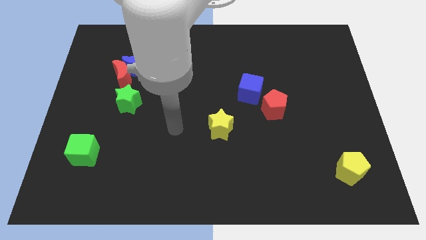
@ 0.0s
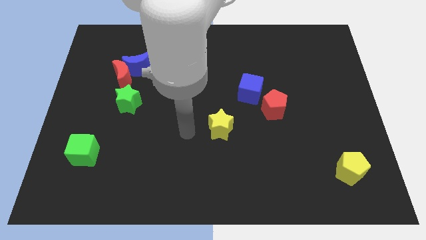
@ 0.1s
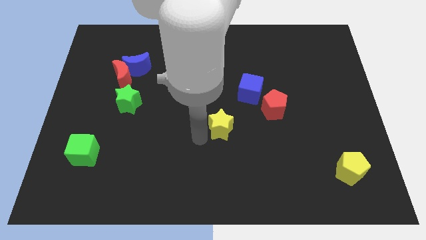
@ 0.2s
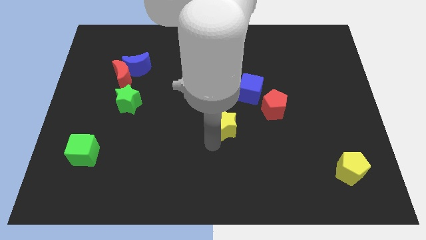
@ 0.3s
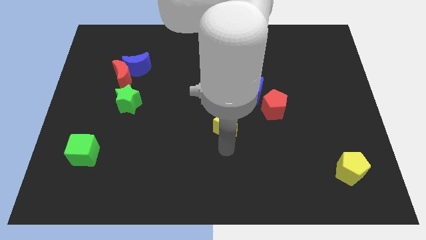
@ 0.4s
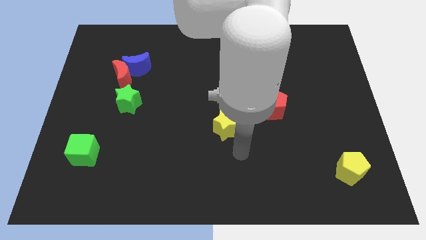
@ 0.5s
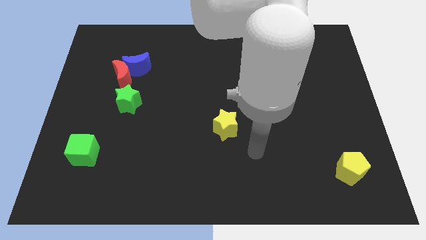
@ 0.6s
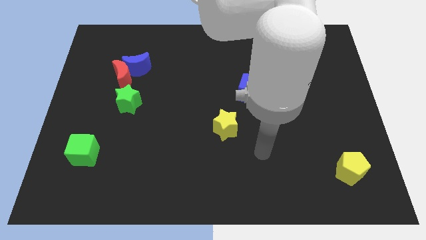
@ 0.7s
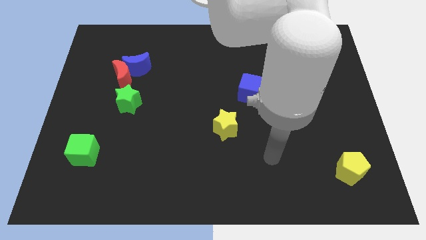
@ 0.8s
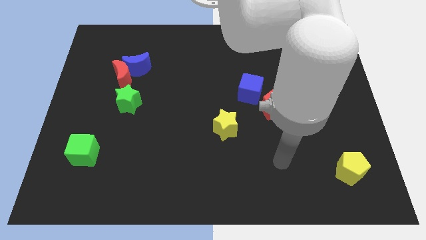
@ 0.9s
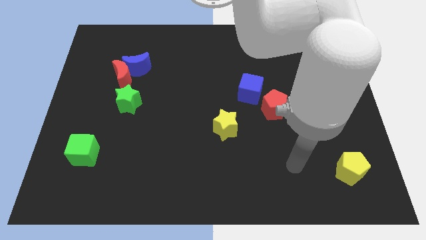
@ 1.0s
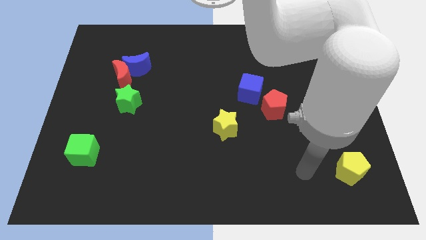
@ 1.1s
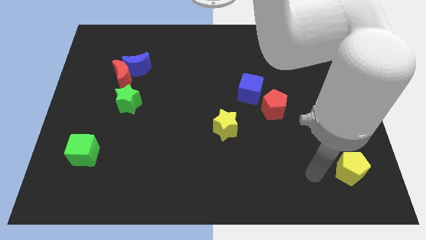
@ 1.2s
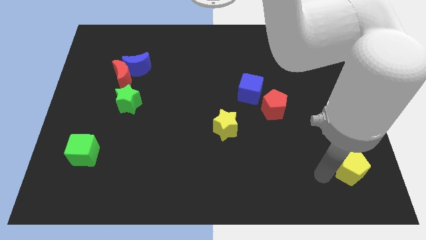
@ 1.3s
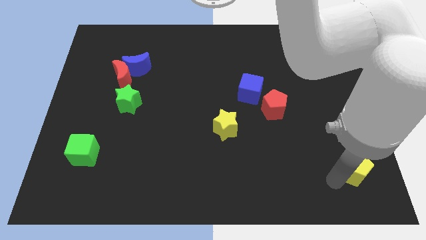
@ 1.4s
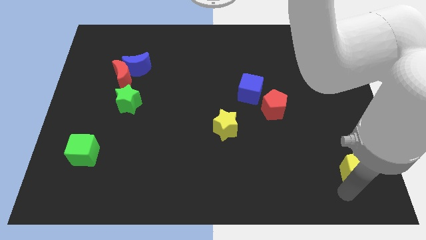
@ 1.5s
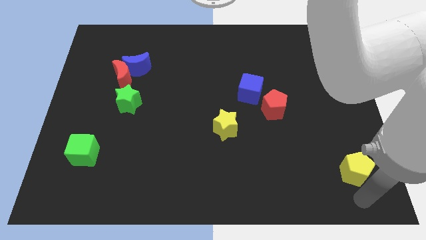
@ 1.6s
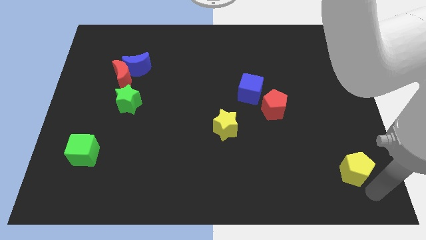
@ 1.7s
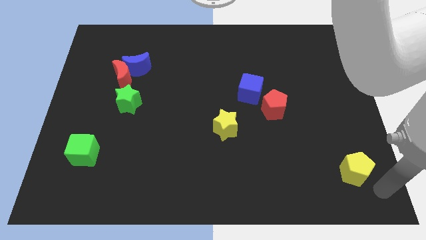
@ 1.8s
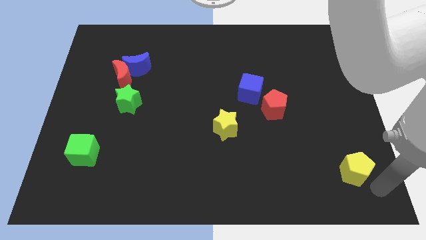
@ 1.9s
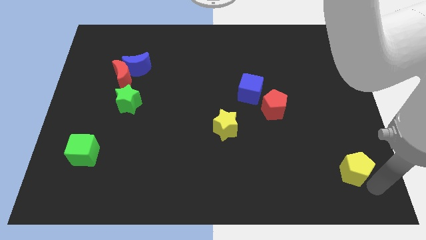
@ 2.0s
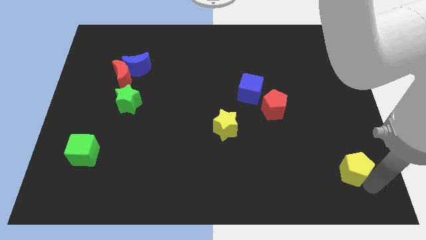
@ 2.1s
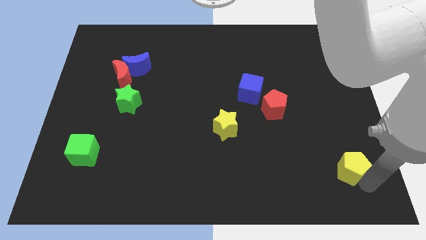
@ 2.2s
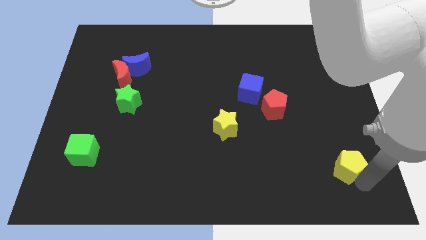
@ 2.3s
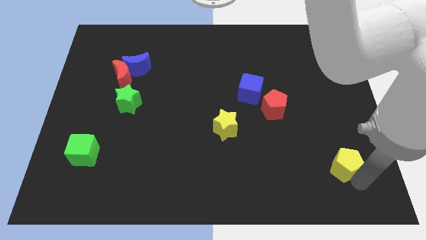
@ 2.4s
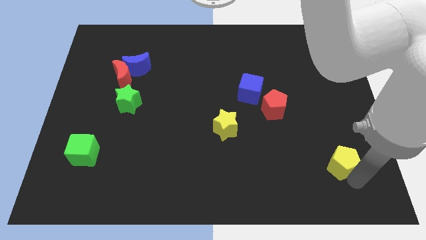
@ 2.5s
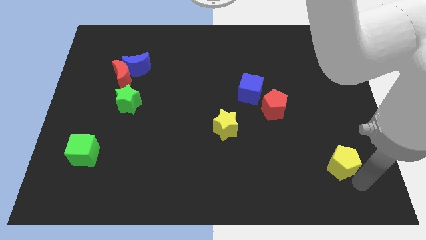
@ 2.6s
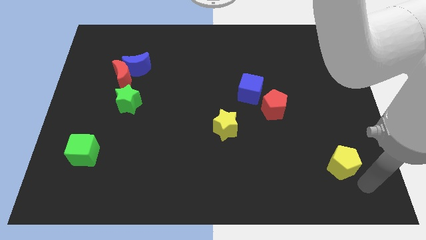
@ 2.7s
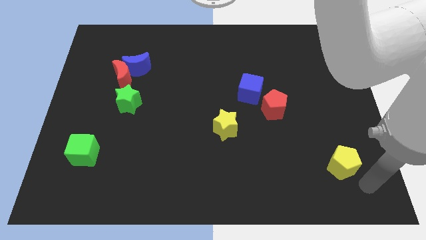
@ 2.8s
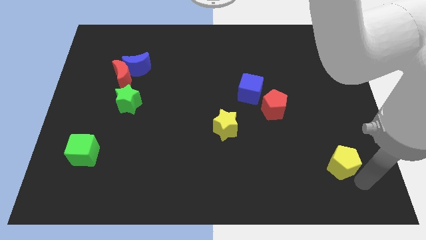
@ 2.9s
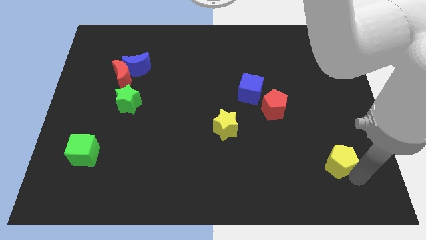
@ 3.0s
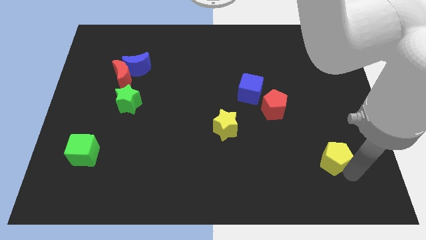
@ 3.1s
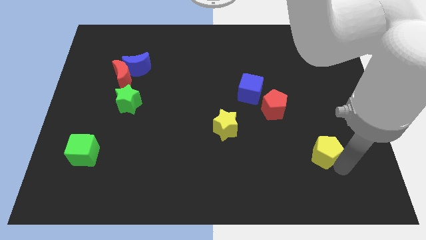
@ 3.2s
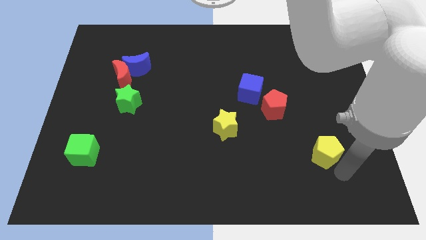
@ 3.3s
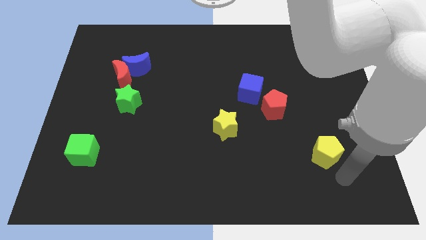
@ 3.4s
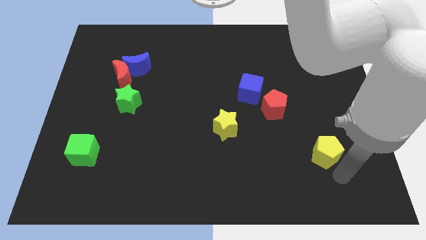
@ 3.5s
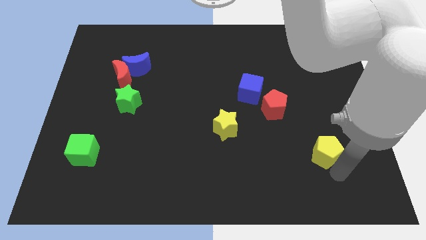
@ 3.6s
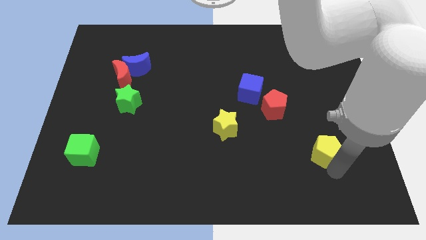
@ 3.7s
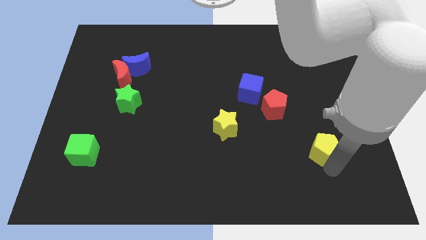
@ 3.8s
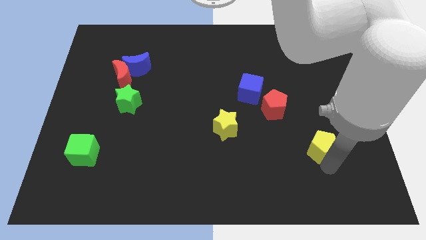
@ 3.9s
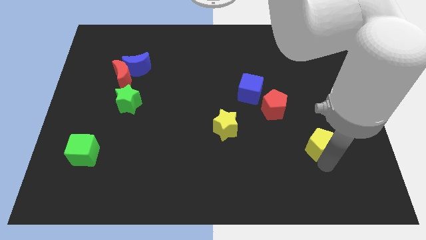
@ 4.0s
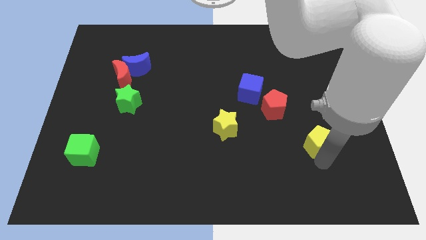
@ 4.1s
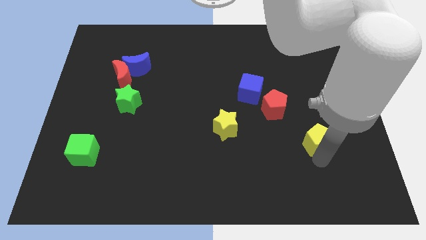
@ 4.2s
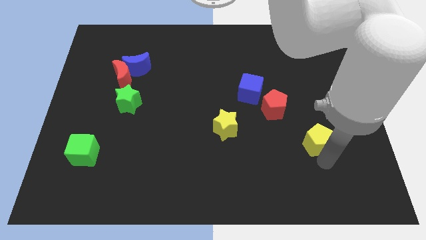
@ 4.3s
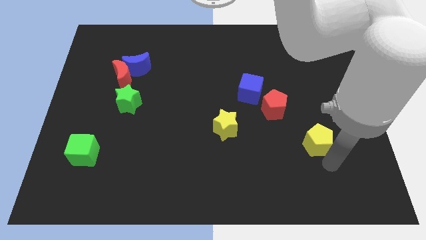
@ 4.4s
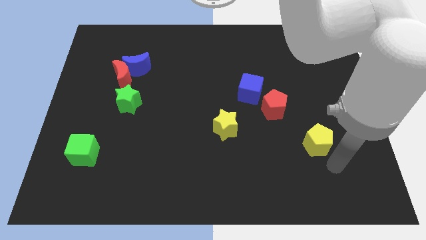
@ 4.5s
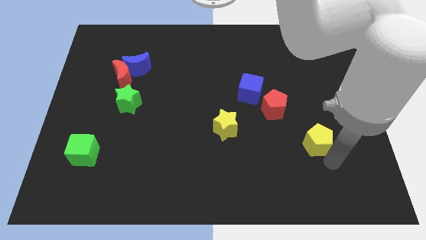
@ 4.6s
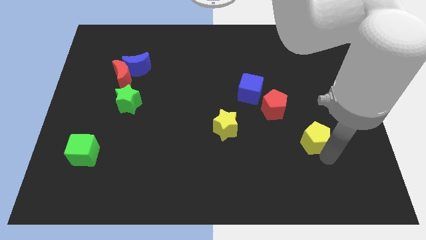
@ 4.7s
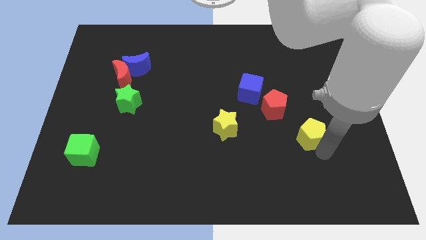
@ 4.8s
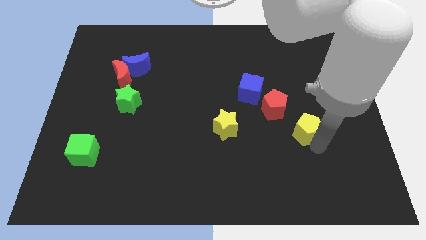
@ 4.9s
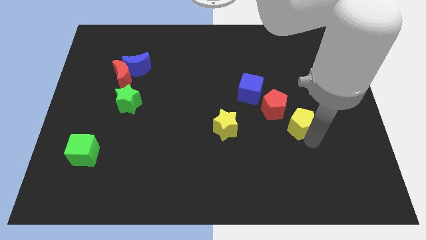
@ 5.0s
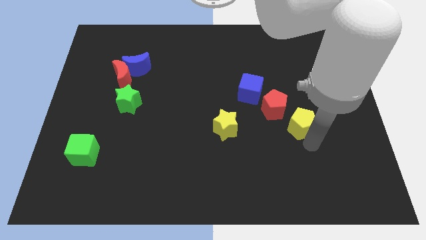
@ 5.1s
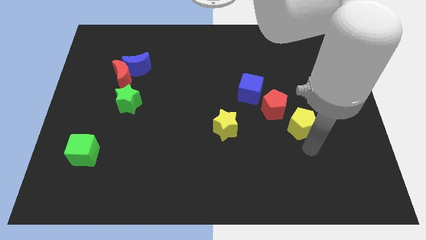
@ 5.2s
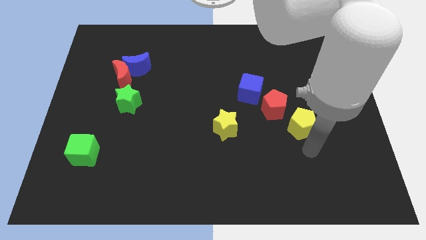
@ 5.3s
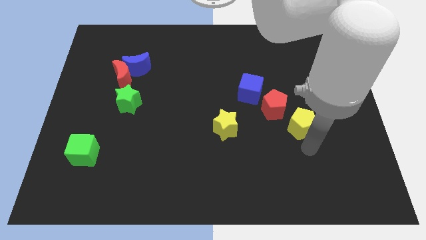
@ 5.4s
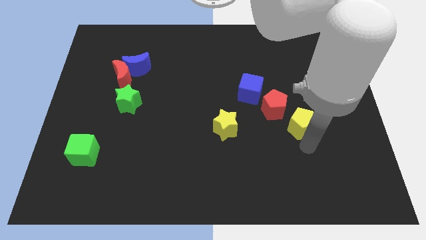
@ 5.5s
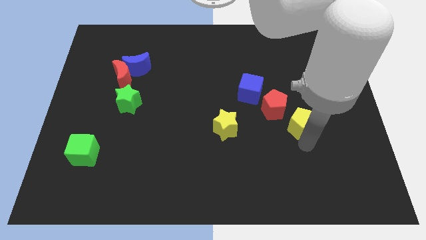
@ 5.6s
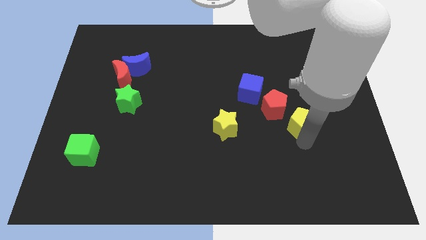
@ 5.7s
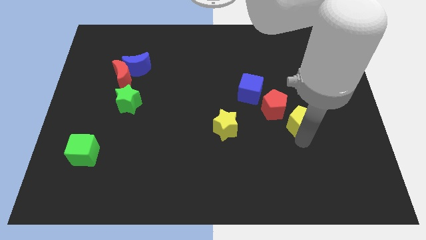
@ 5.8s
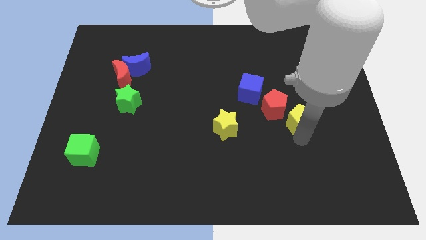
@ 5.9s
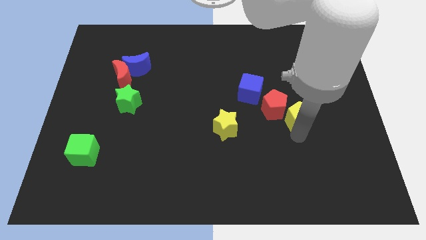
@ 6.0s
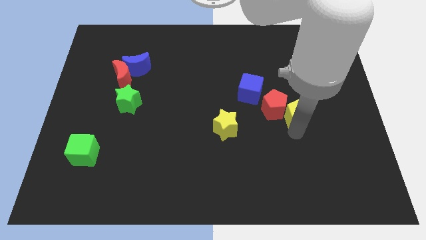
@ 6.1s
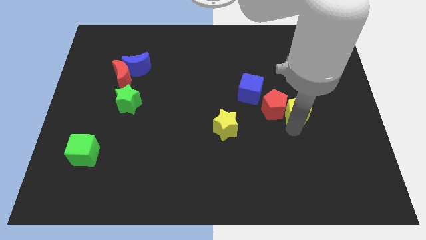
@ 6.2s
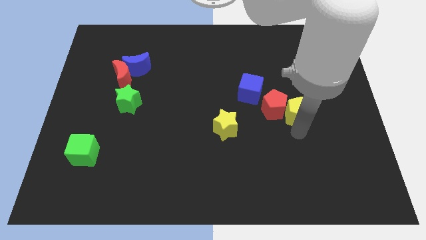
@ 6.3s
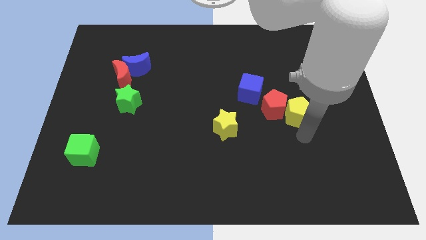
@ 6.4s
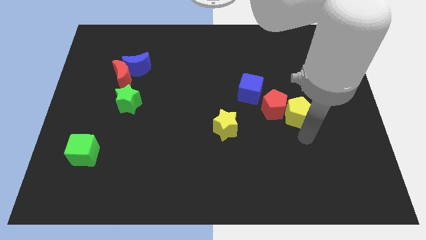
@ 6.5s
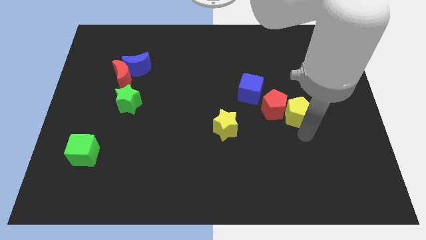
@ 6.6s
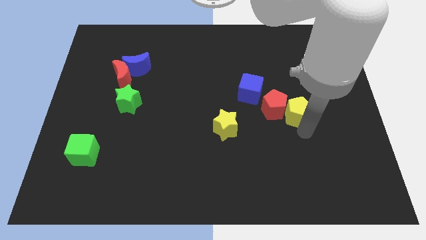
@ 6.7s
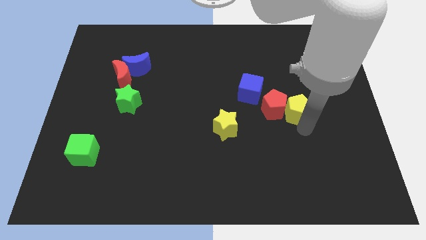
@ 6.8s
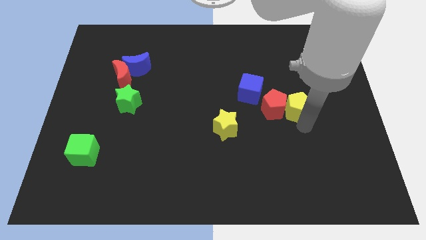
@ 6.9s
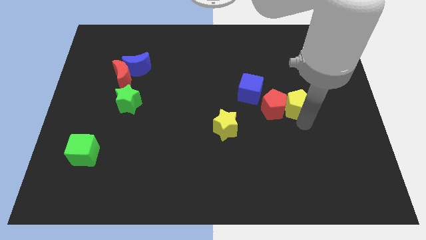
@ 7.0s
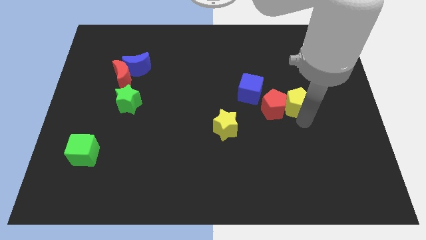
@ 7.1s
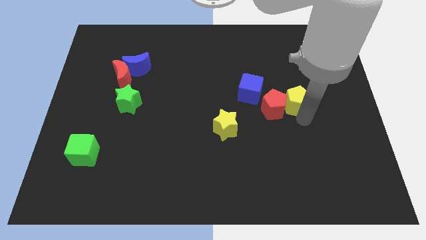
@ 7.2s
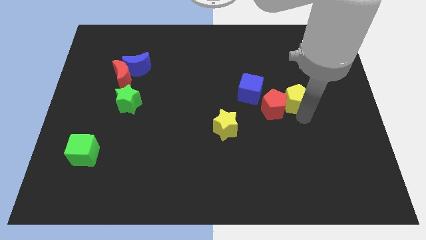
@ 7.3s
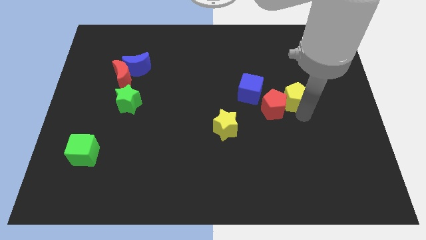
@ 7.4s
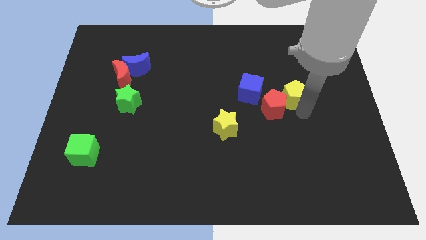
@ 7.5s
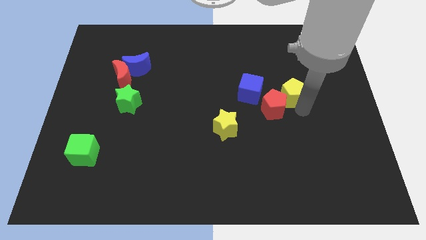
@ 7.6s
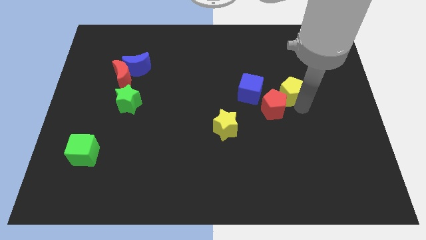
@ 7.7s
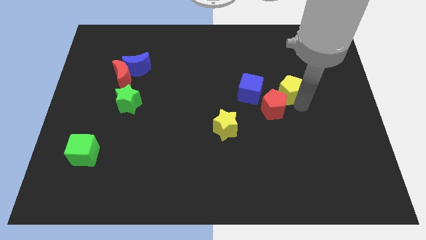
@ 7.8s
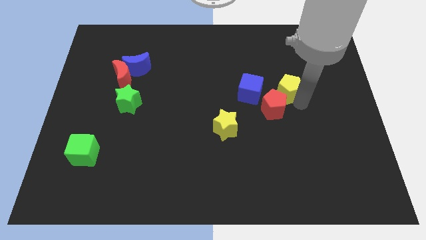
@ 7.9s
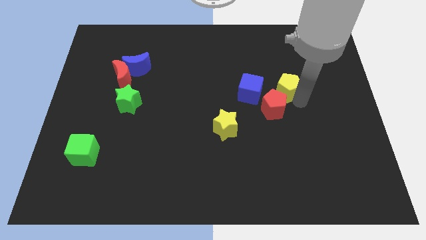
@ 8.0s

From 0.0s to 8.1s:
move the yellow pentagon upwards and then left

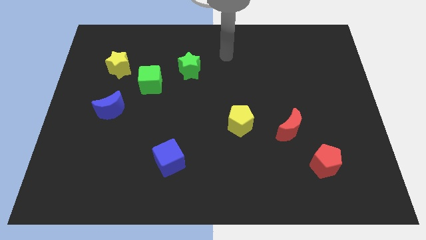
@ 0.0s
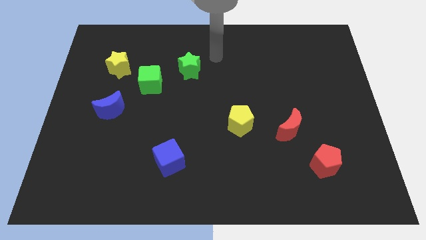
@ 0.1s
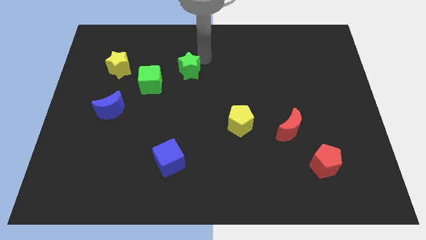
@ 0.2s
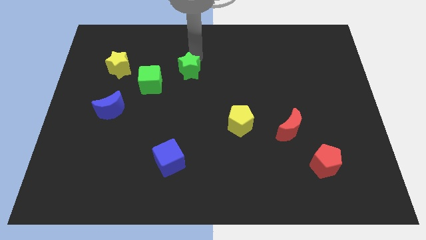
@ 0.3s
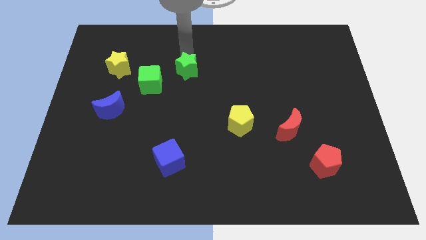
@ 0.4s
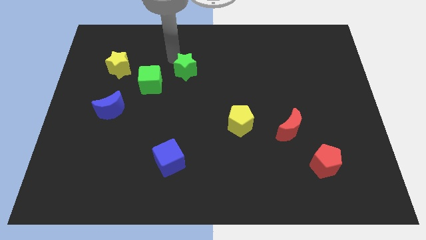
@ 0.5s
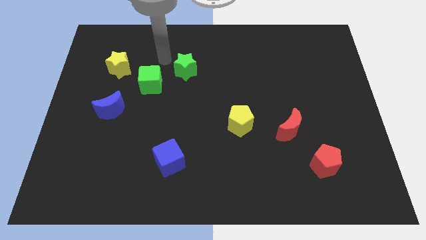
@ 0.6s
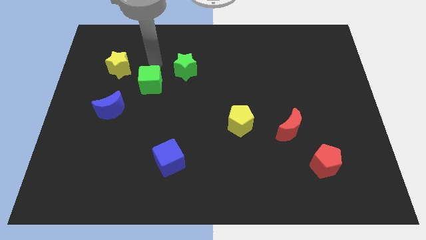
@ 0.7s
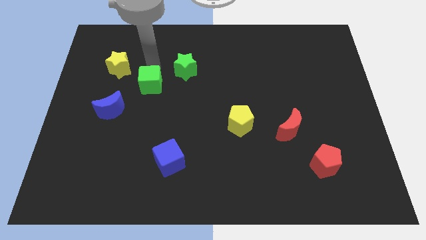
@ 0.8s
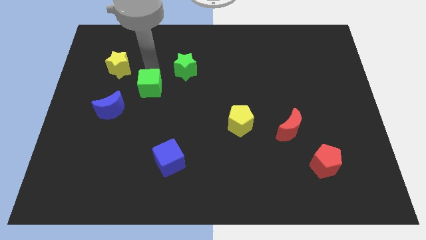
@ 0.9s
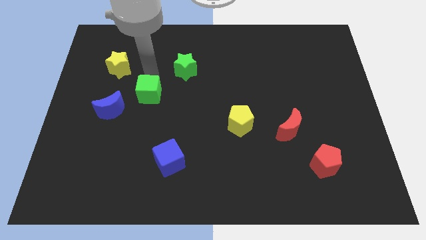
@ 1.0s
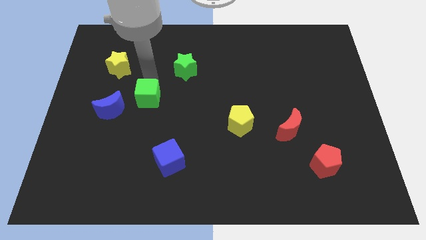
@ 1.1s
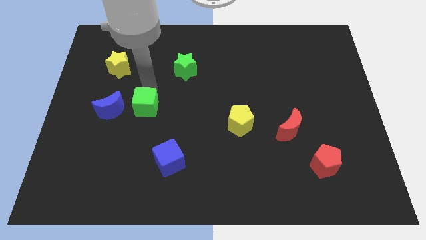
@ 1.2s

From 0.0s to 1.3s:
slide the green cube downwards slightly
